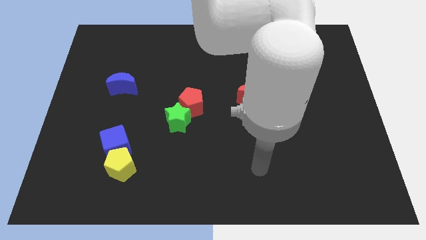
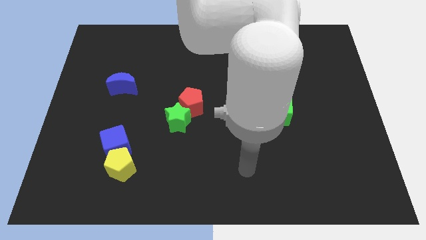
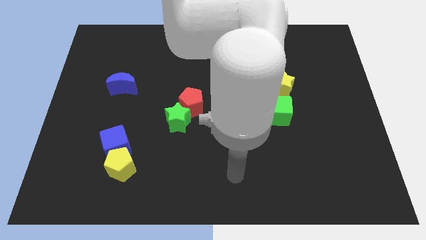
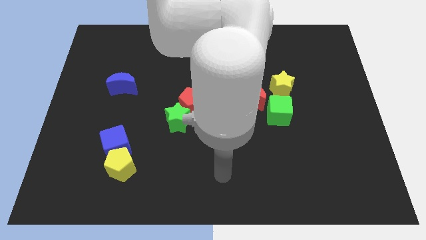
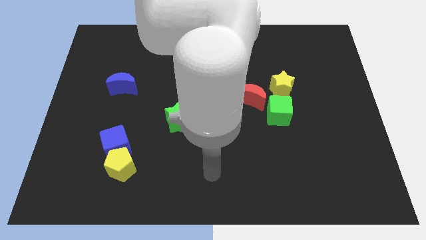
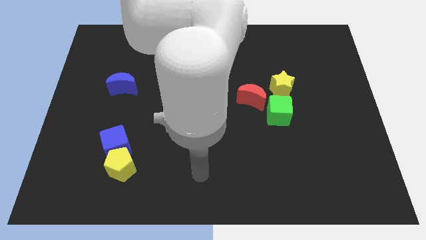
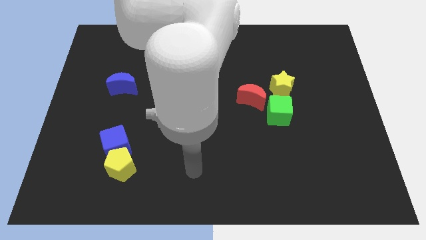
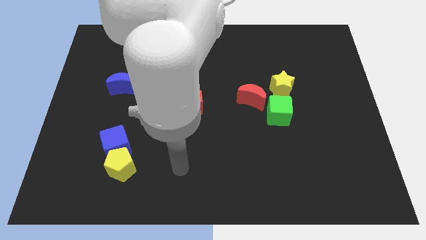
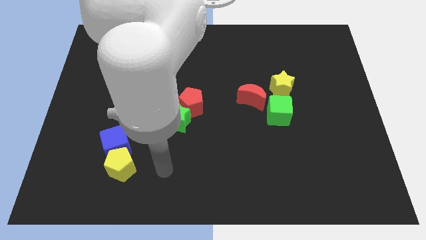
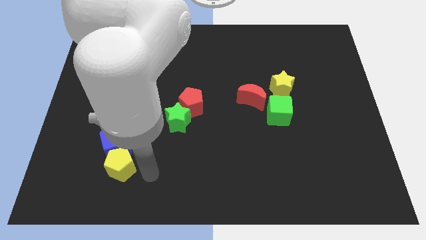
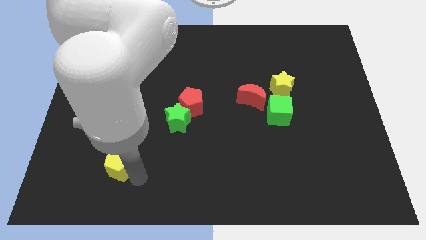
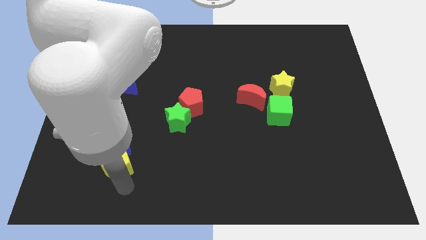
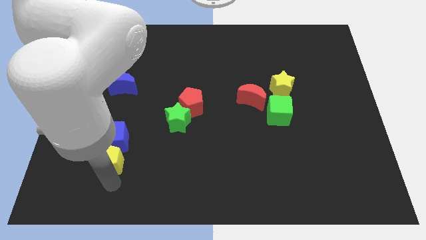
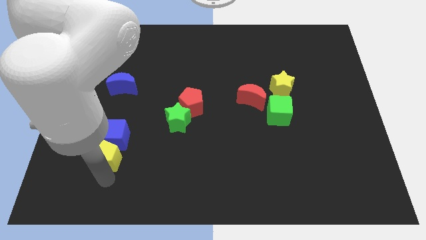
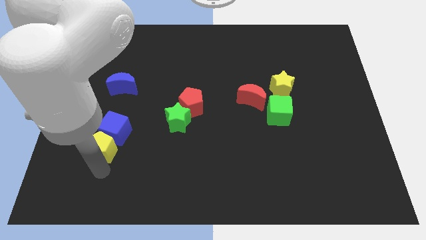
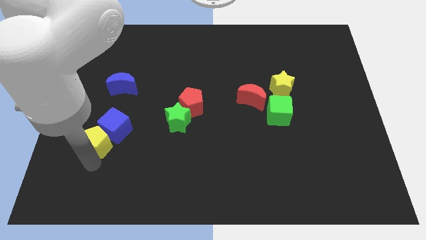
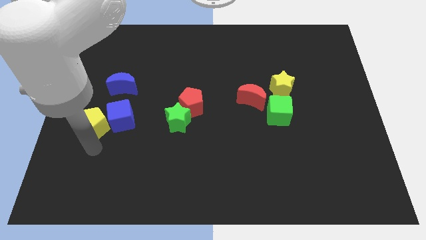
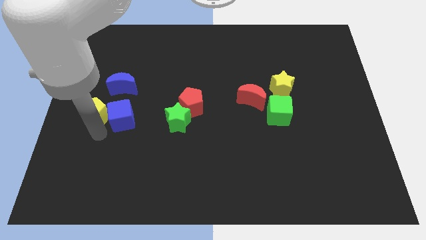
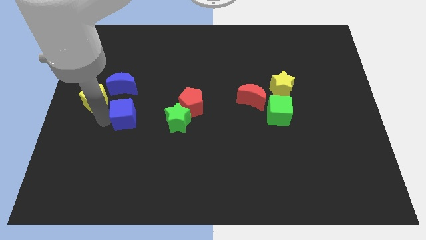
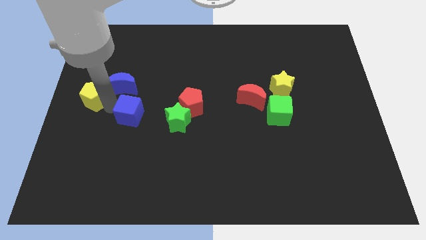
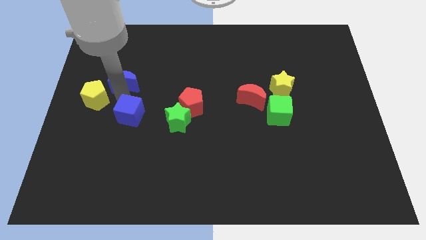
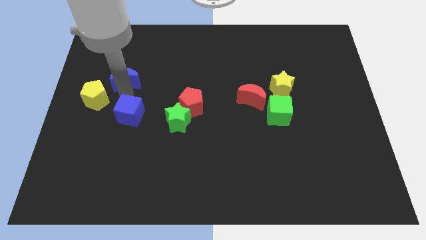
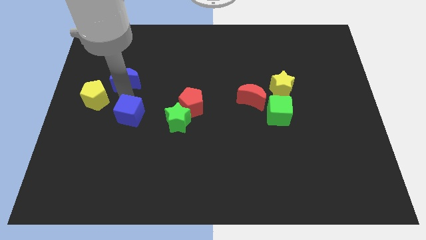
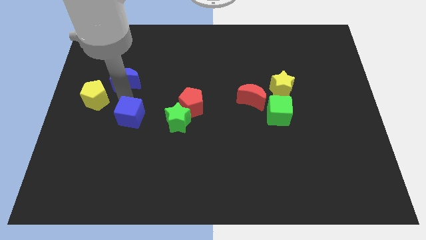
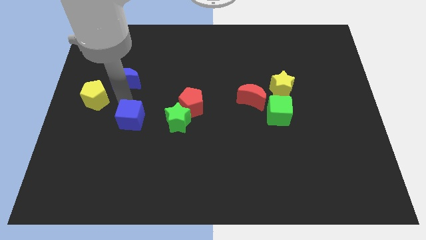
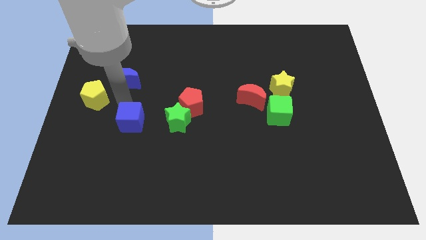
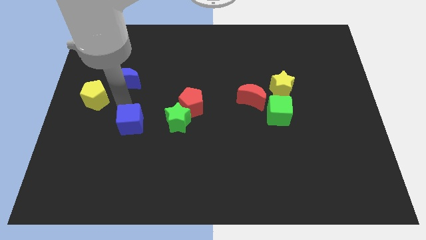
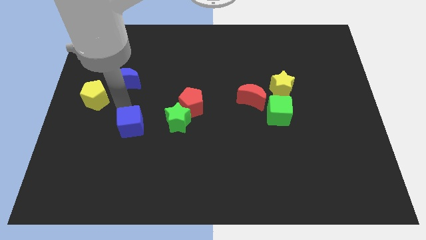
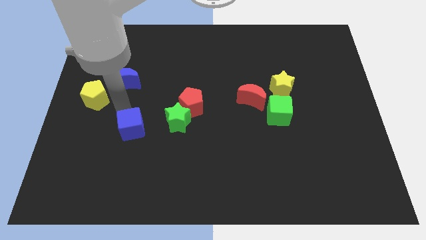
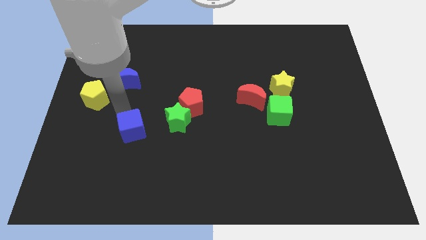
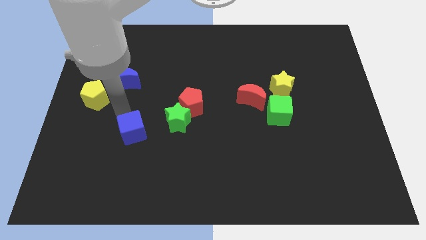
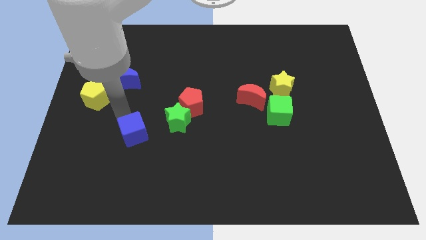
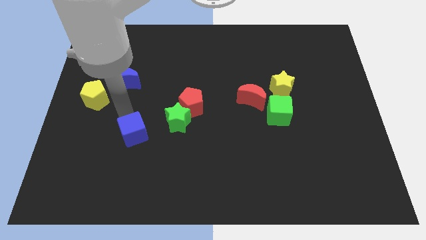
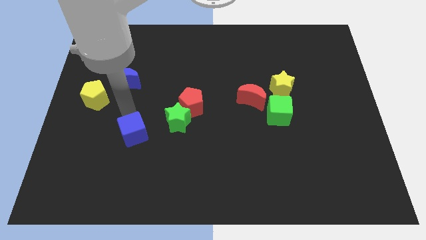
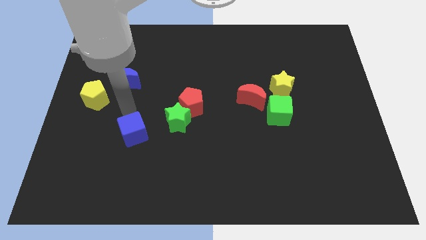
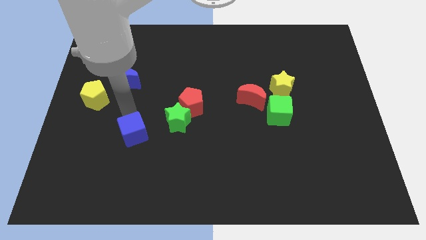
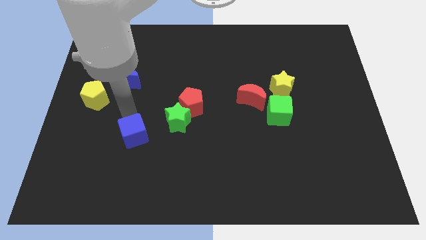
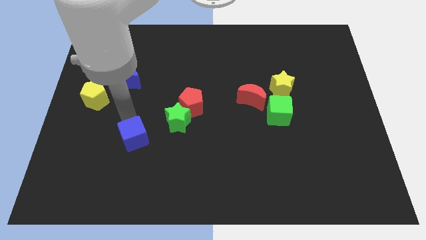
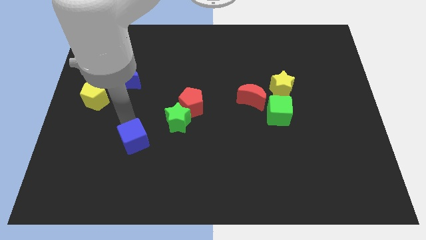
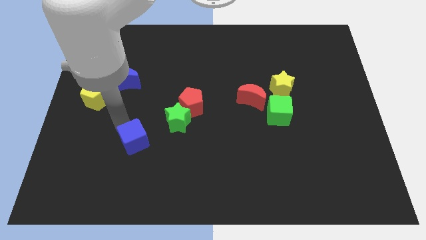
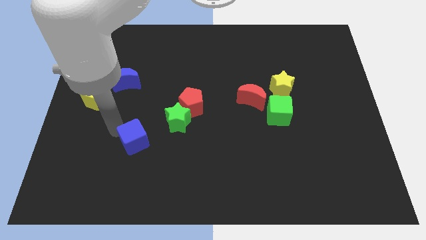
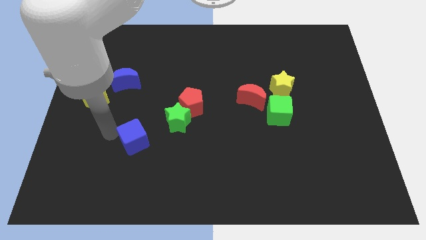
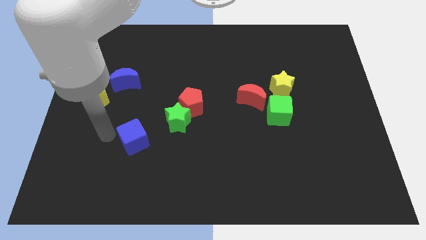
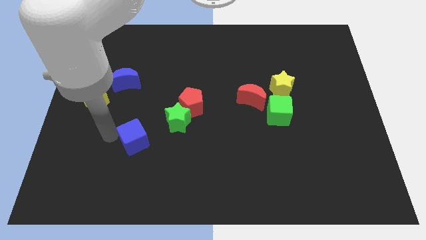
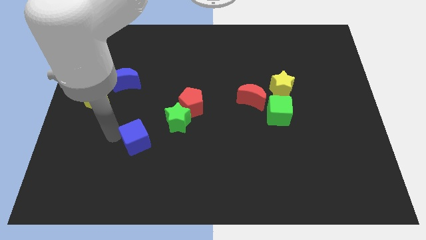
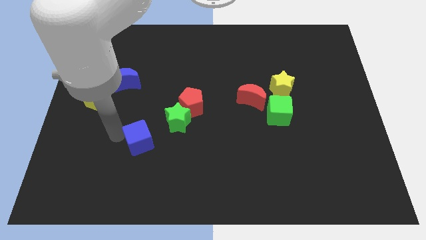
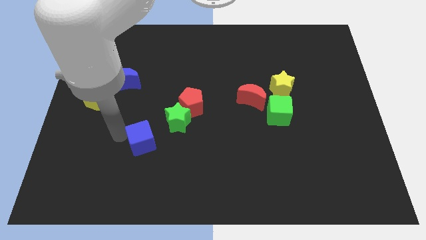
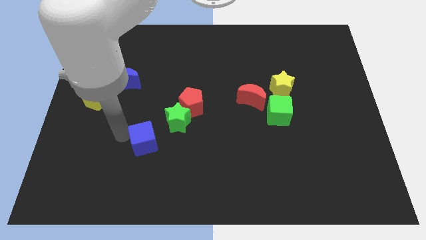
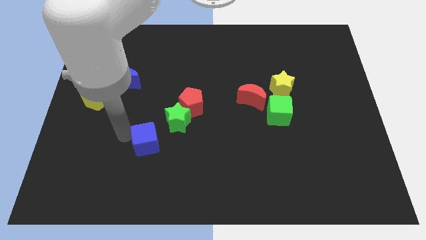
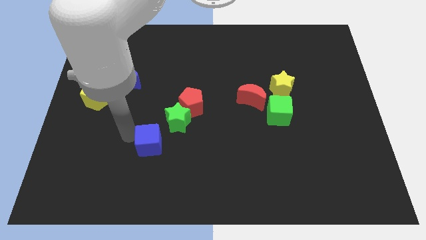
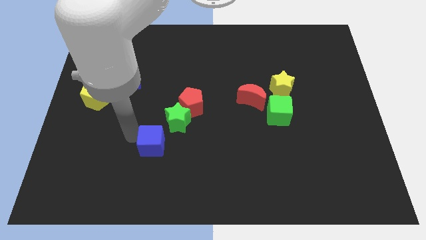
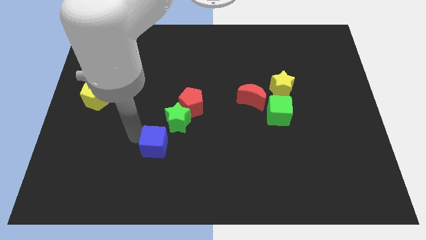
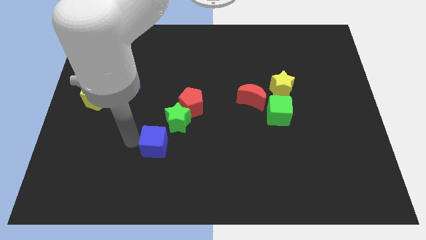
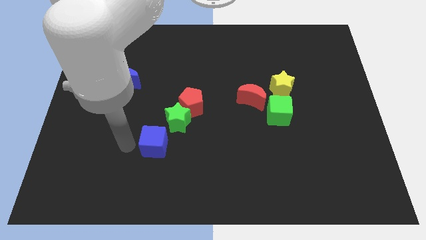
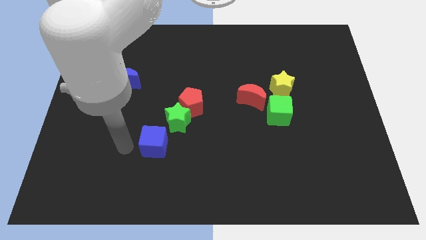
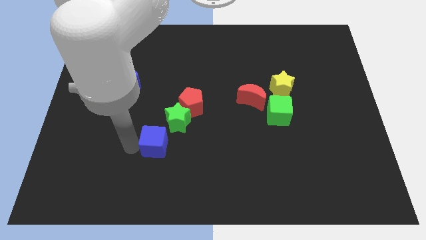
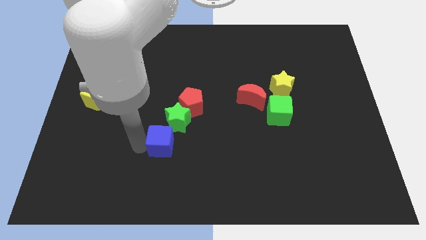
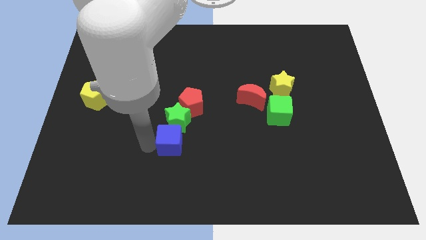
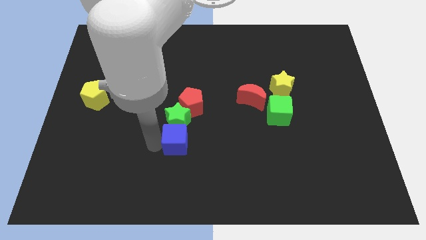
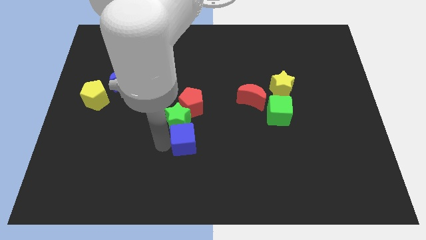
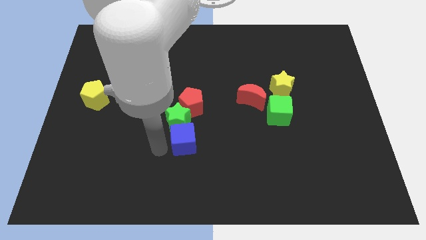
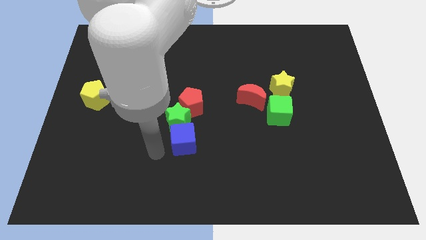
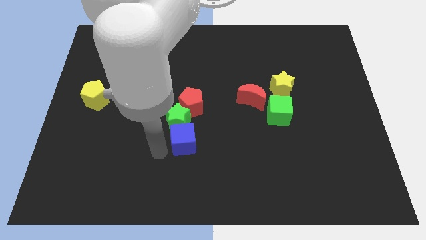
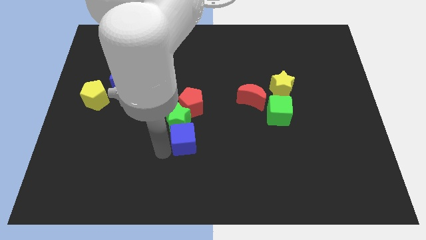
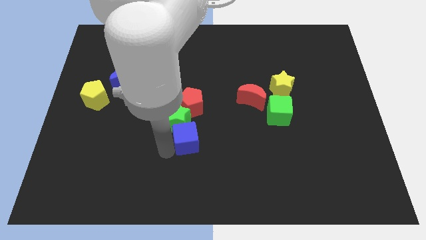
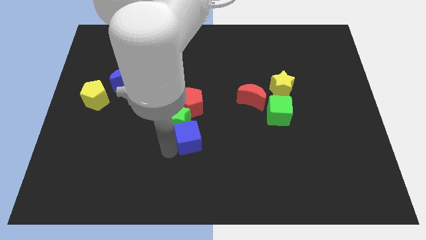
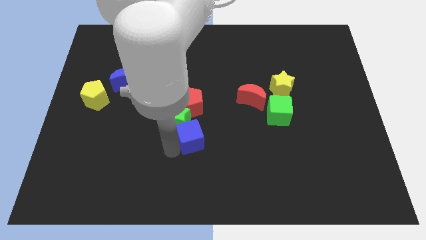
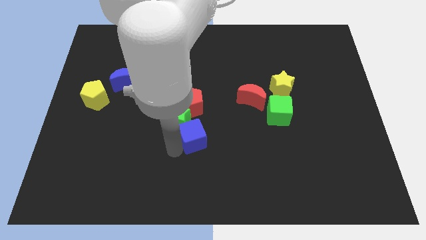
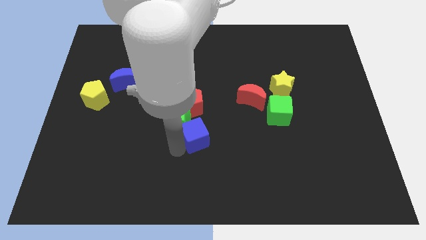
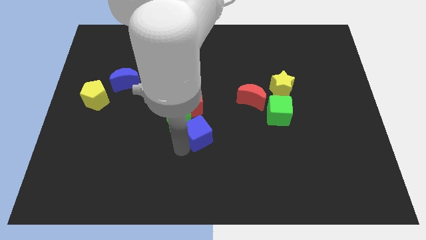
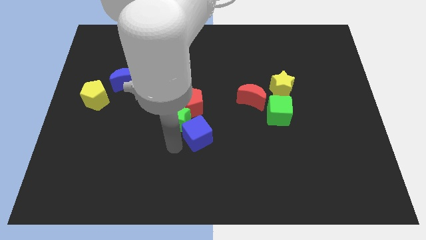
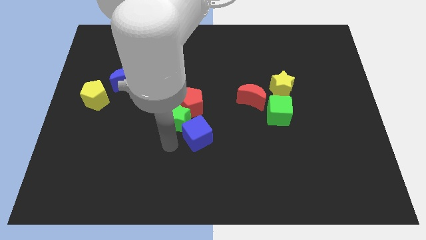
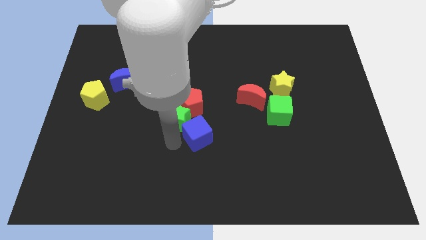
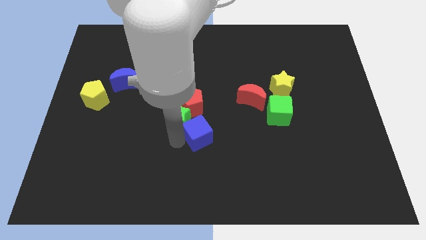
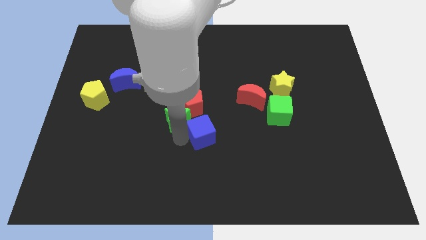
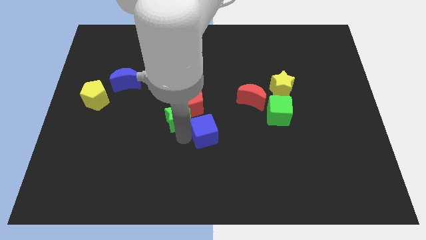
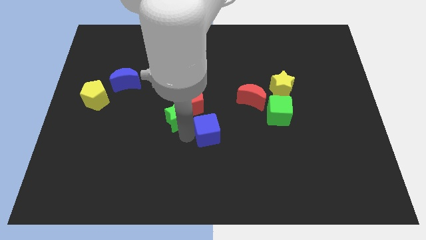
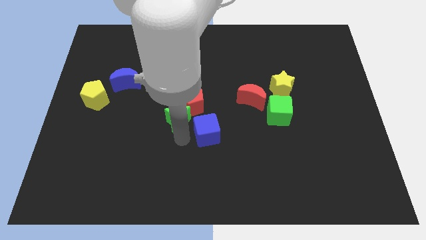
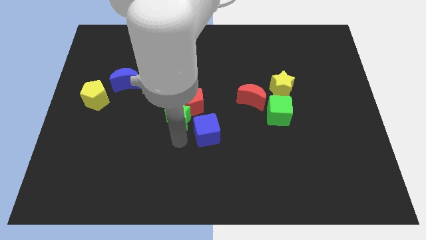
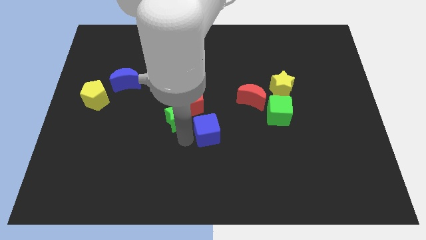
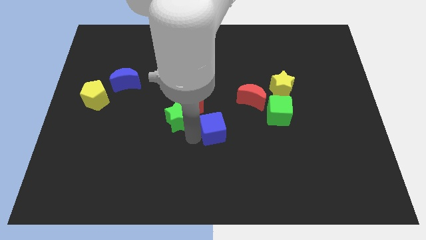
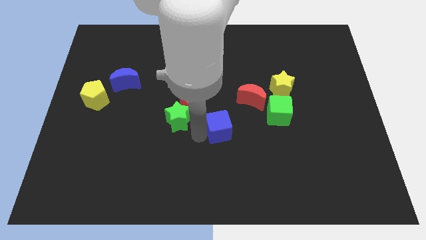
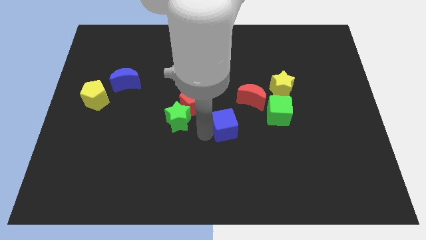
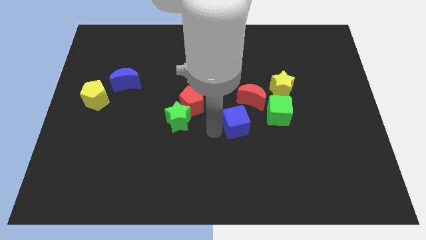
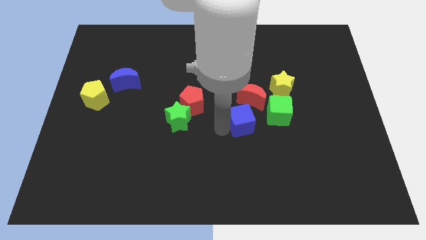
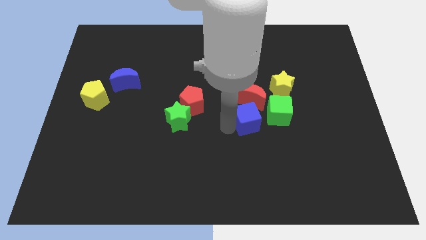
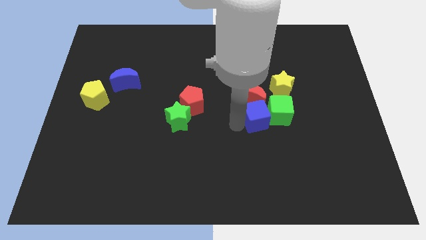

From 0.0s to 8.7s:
push the blue cube towards the green cube
